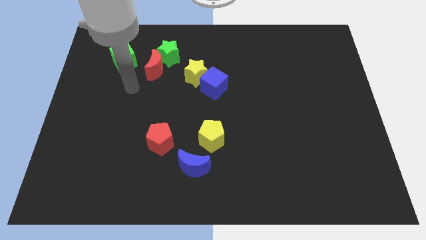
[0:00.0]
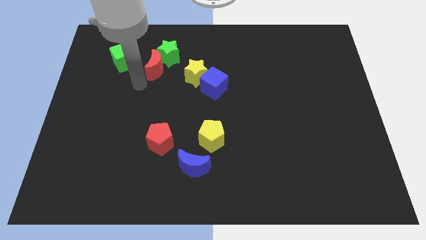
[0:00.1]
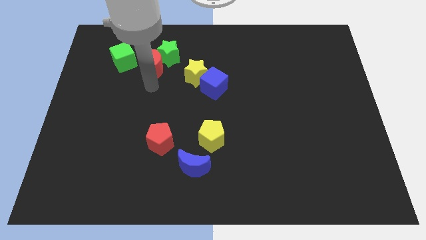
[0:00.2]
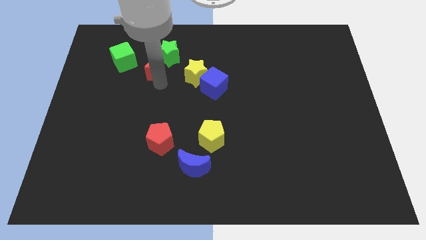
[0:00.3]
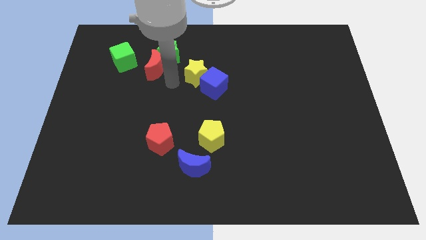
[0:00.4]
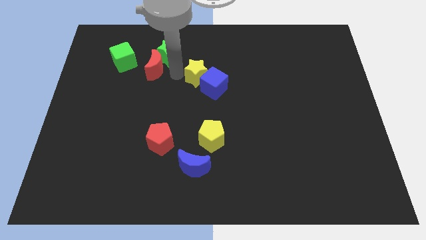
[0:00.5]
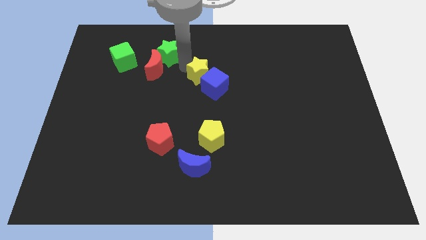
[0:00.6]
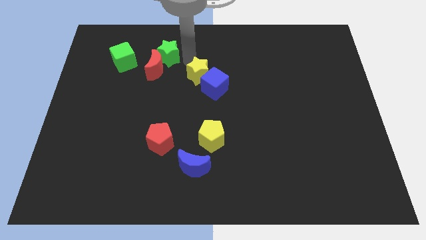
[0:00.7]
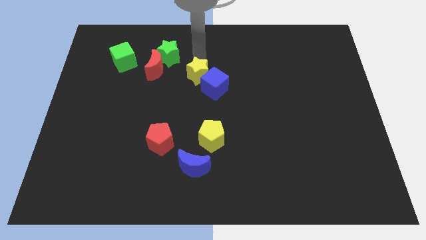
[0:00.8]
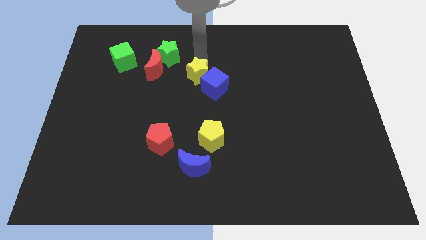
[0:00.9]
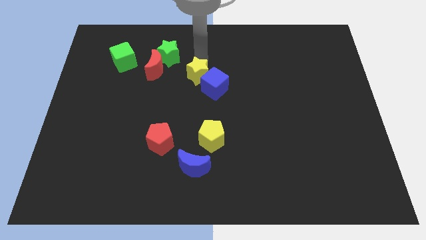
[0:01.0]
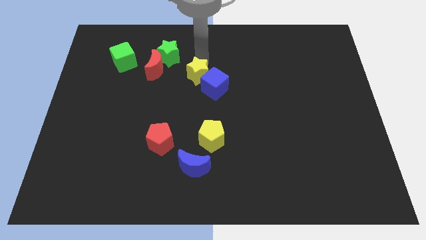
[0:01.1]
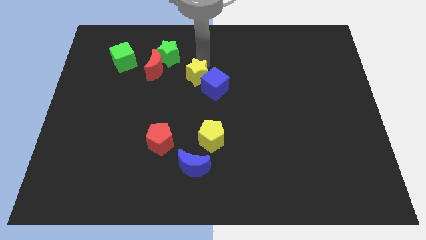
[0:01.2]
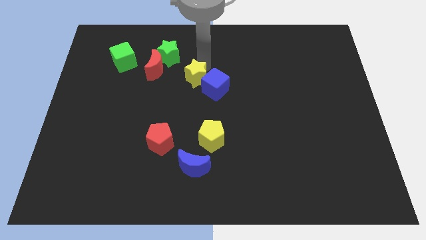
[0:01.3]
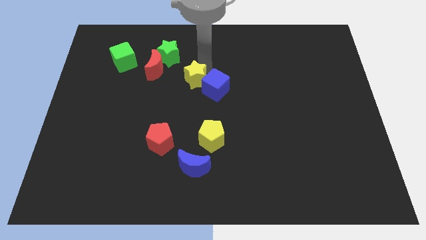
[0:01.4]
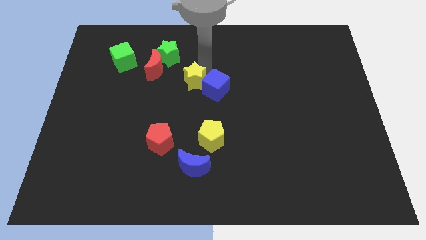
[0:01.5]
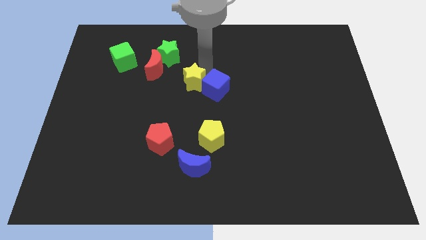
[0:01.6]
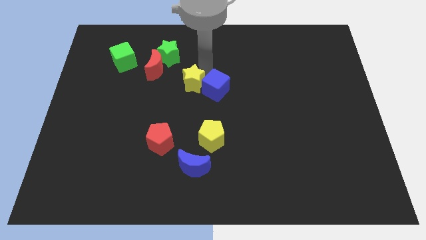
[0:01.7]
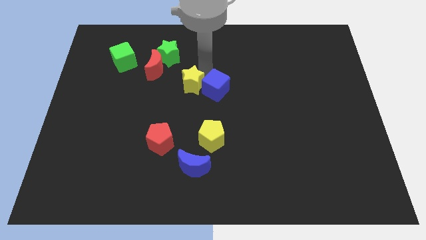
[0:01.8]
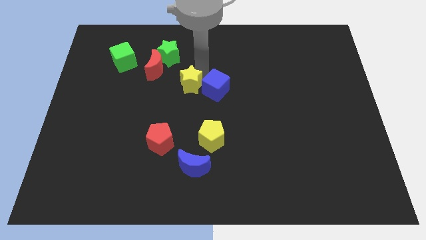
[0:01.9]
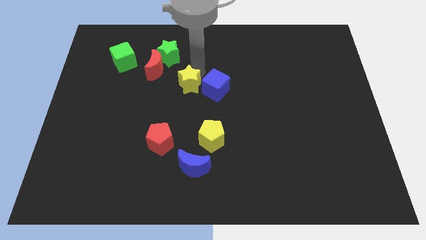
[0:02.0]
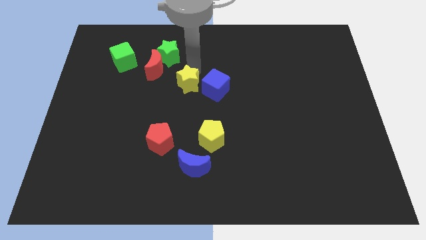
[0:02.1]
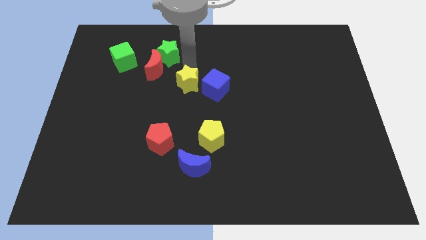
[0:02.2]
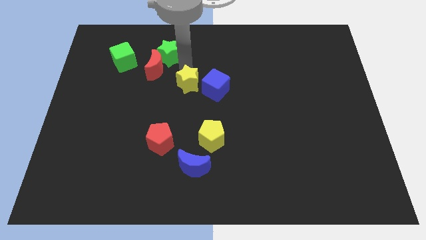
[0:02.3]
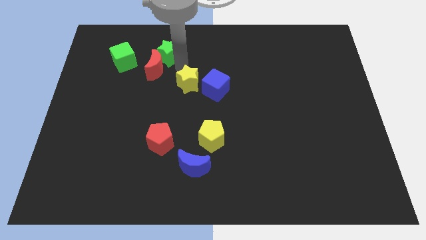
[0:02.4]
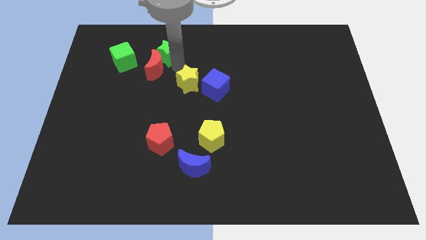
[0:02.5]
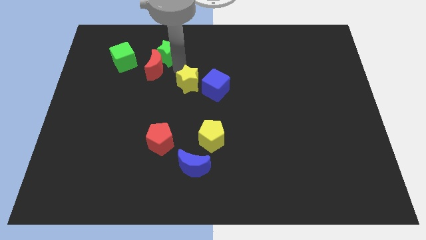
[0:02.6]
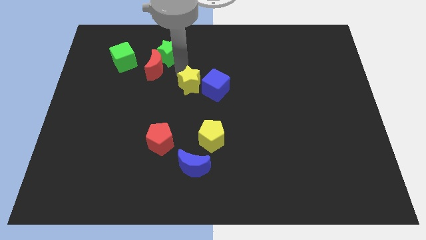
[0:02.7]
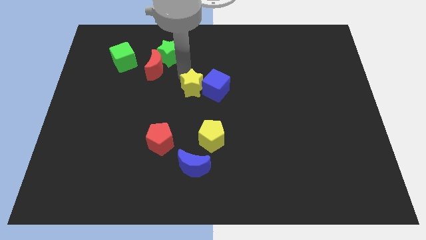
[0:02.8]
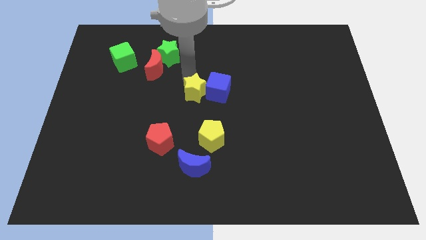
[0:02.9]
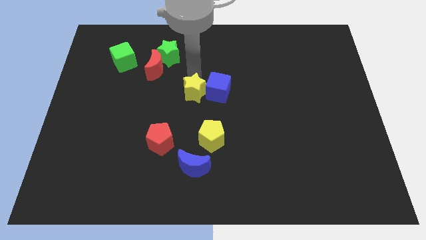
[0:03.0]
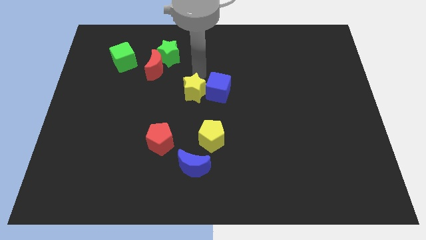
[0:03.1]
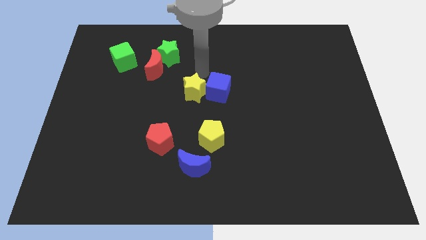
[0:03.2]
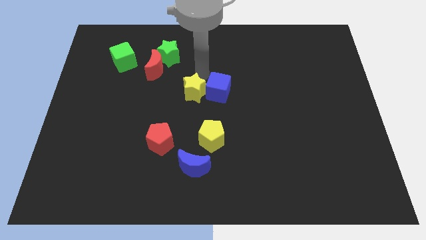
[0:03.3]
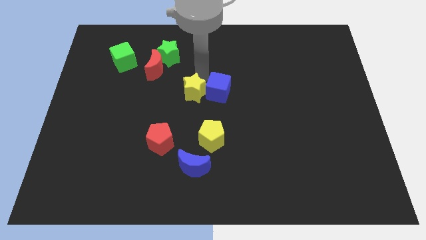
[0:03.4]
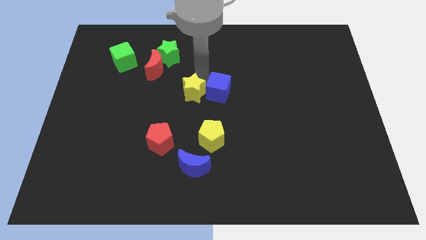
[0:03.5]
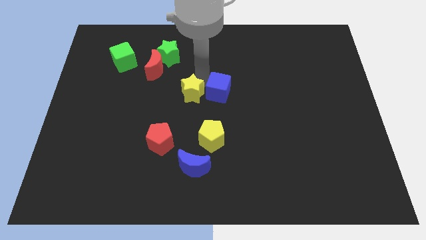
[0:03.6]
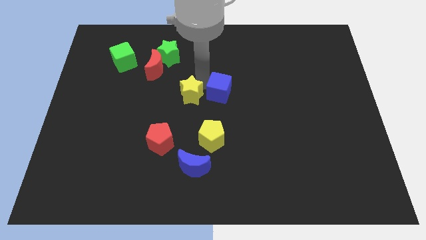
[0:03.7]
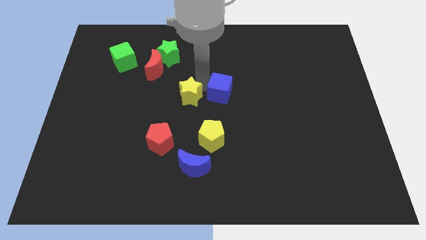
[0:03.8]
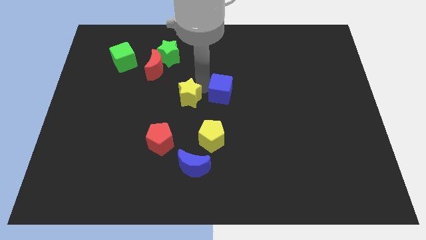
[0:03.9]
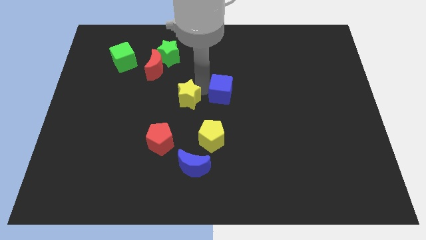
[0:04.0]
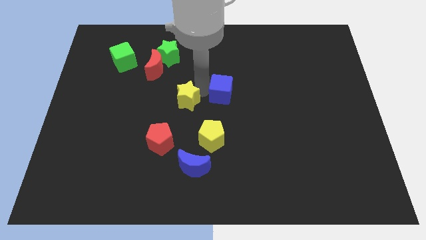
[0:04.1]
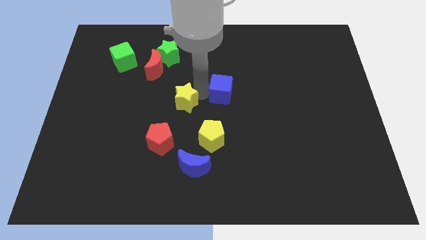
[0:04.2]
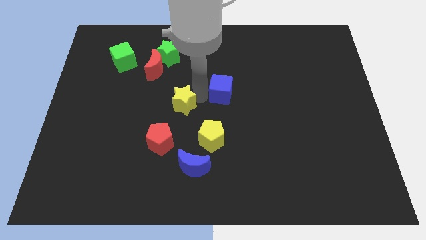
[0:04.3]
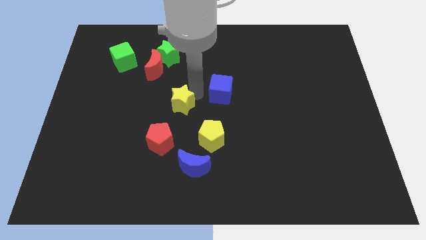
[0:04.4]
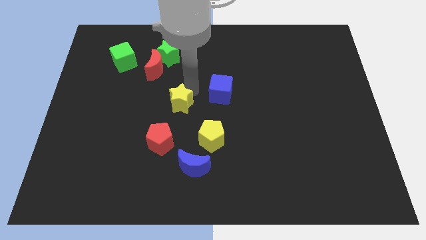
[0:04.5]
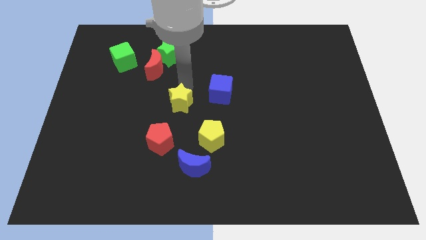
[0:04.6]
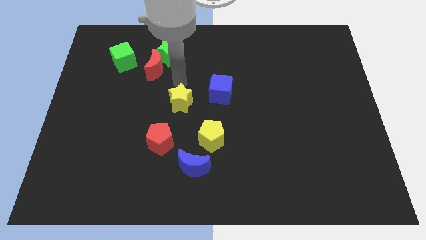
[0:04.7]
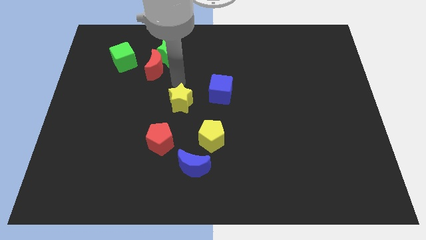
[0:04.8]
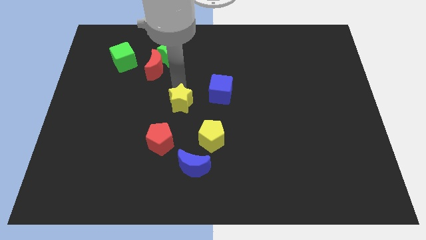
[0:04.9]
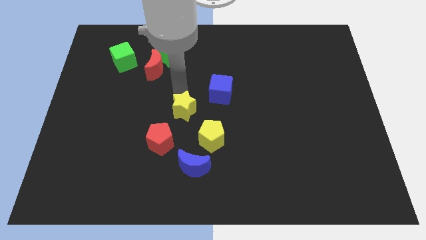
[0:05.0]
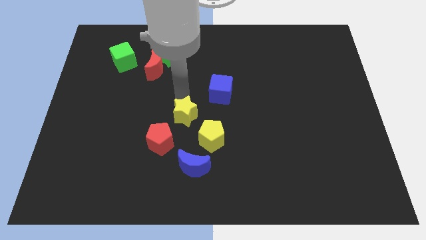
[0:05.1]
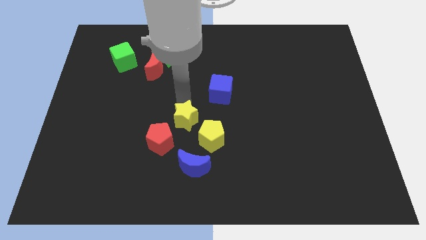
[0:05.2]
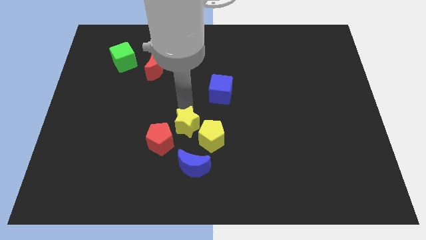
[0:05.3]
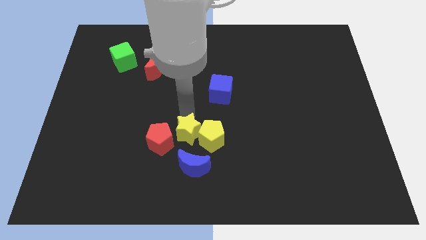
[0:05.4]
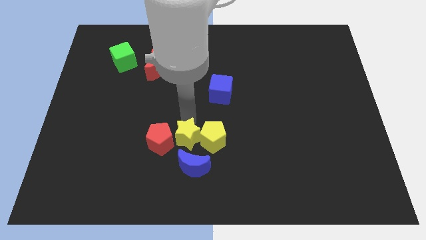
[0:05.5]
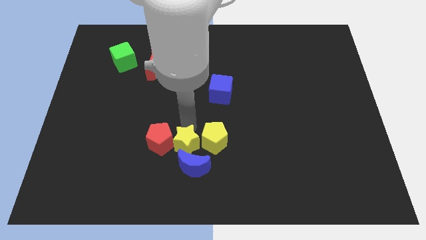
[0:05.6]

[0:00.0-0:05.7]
push the yellow star next to the blue moon

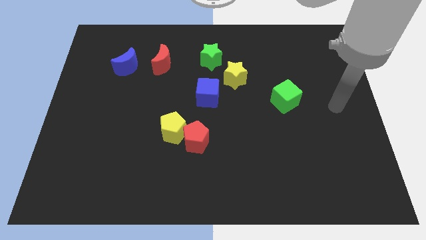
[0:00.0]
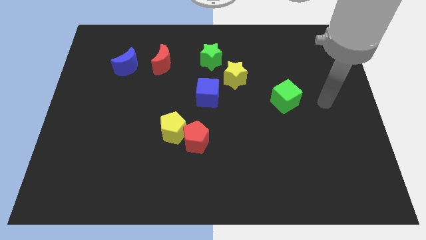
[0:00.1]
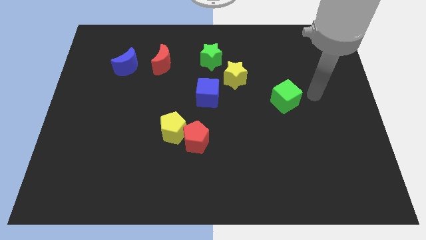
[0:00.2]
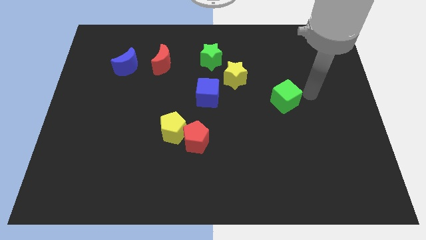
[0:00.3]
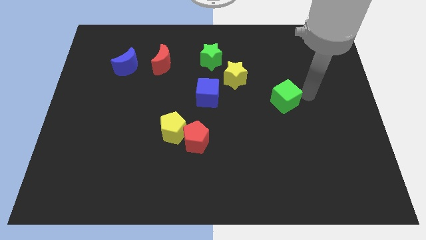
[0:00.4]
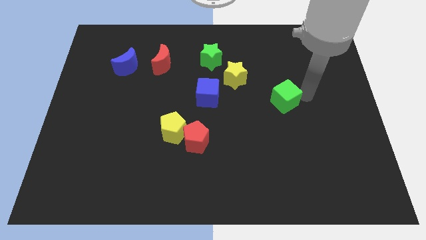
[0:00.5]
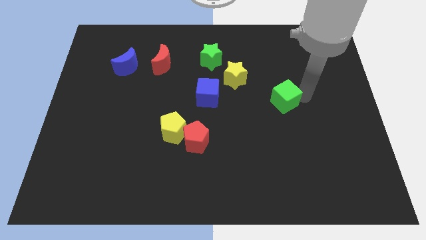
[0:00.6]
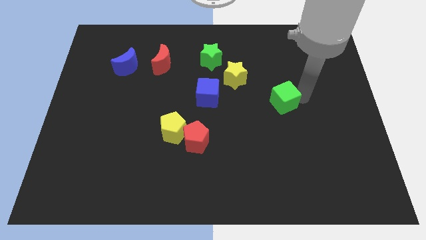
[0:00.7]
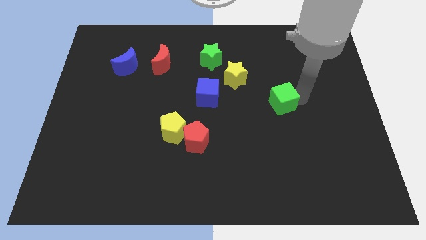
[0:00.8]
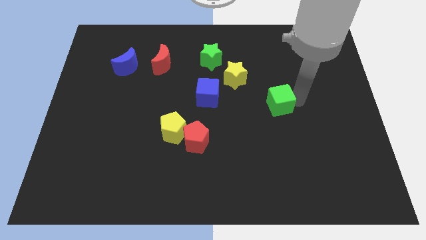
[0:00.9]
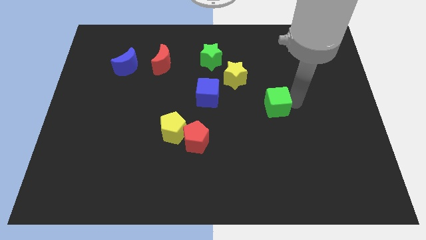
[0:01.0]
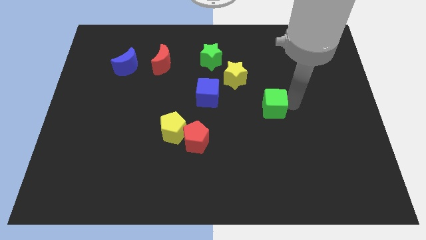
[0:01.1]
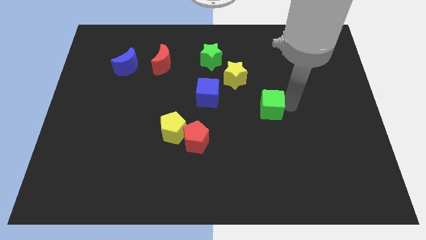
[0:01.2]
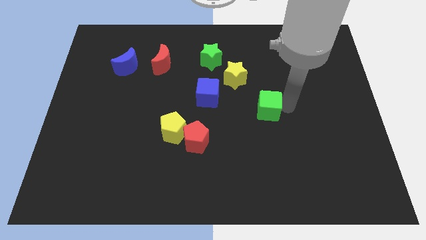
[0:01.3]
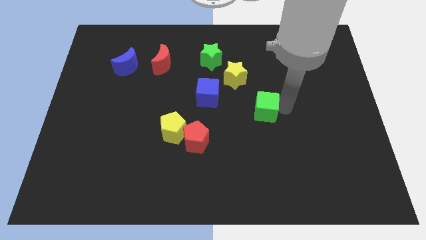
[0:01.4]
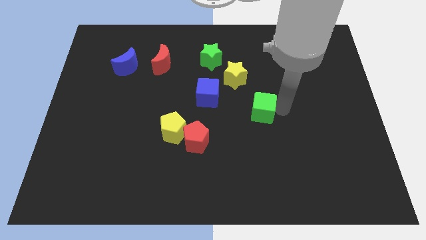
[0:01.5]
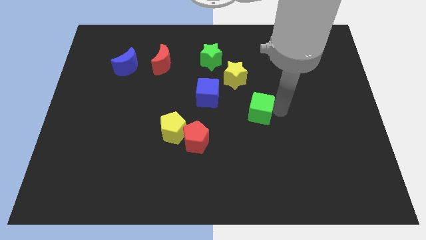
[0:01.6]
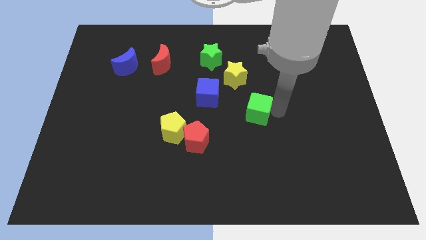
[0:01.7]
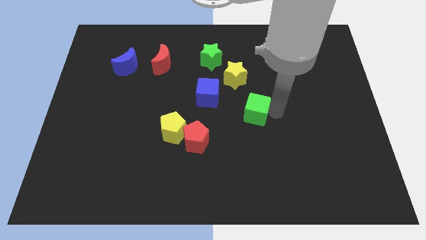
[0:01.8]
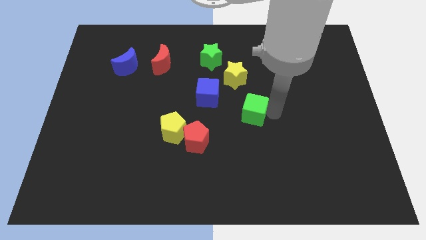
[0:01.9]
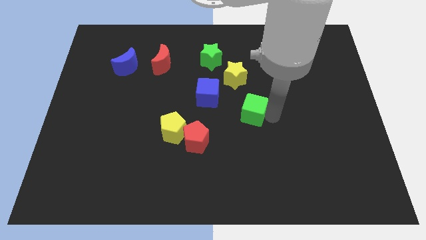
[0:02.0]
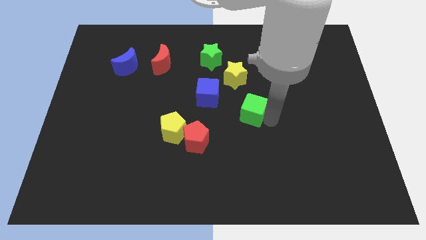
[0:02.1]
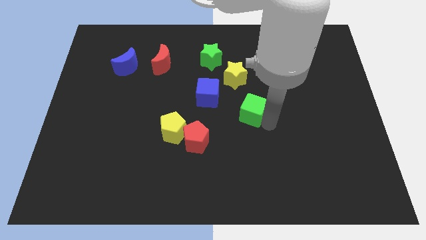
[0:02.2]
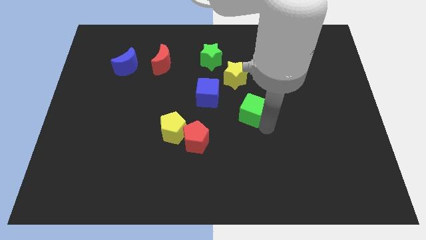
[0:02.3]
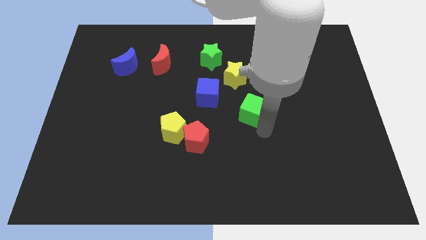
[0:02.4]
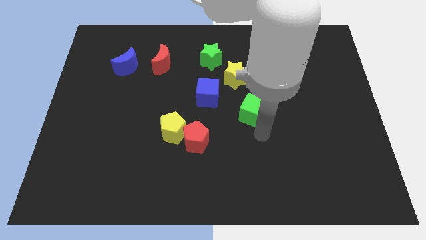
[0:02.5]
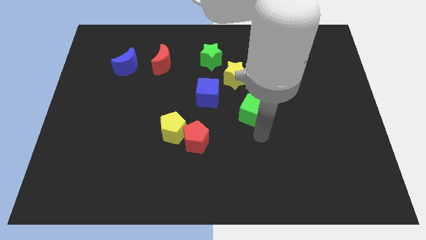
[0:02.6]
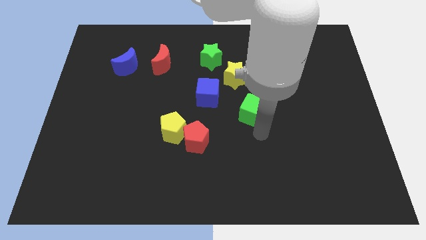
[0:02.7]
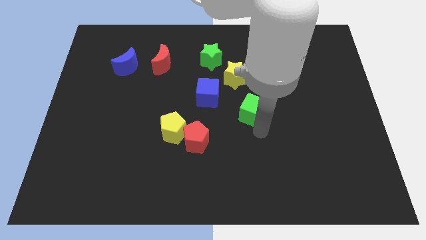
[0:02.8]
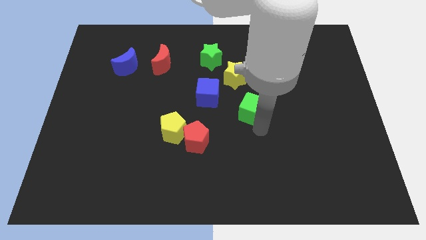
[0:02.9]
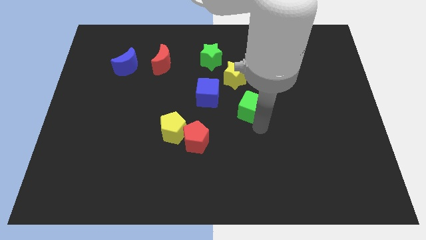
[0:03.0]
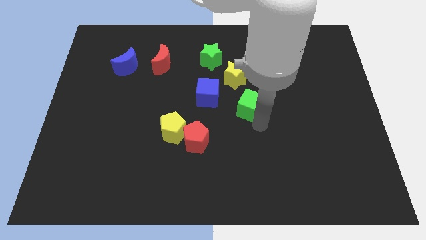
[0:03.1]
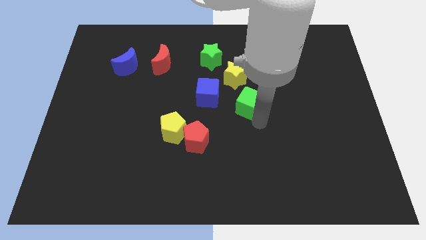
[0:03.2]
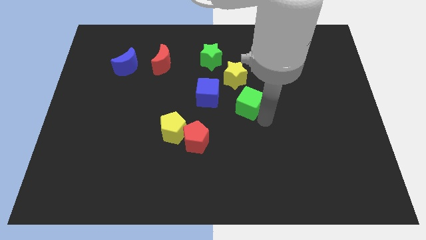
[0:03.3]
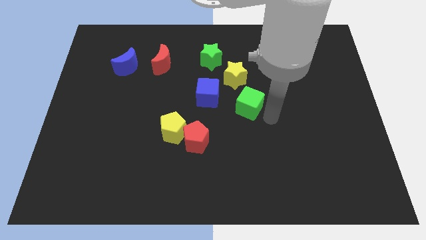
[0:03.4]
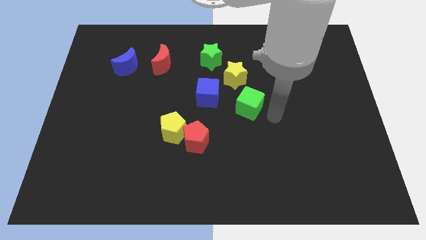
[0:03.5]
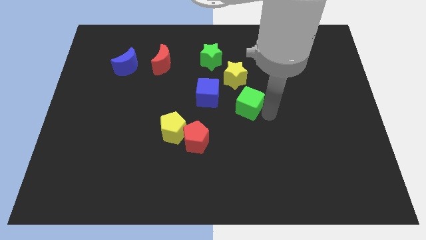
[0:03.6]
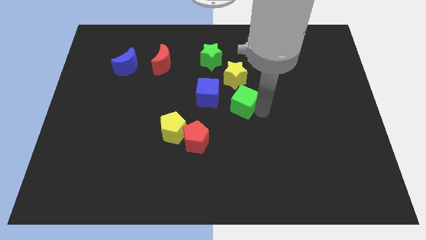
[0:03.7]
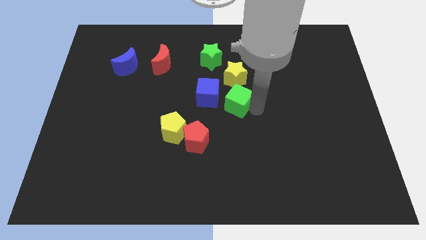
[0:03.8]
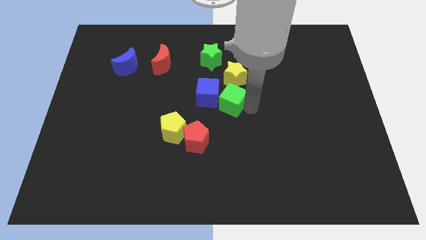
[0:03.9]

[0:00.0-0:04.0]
push the green cube close to the blue cube
